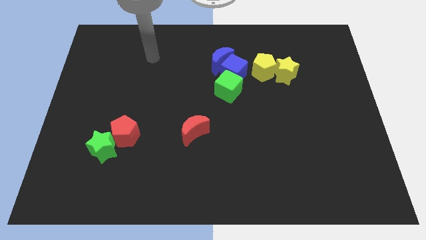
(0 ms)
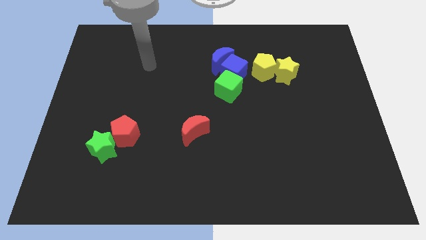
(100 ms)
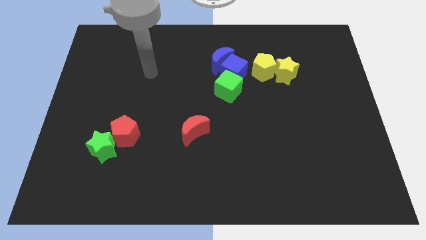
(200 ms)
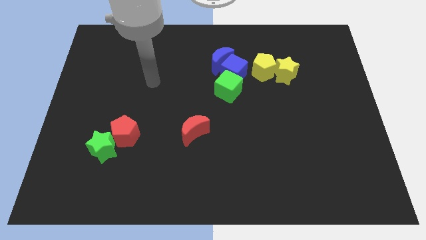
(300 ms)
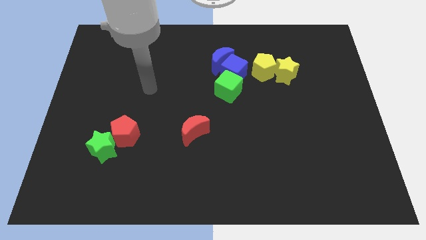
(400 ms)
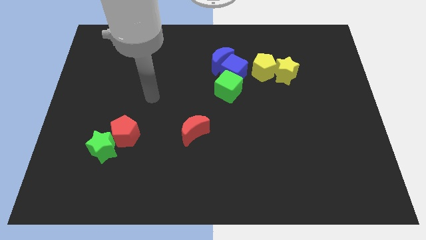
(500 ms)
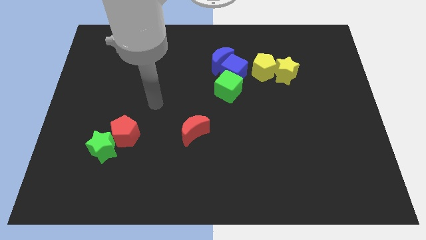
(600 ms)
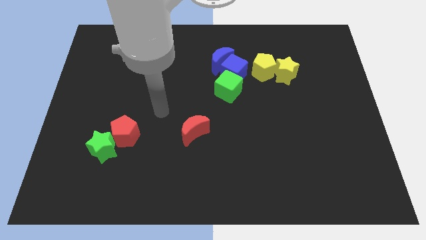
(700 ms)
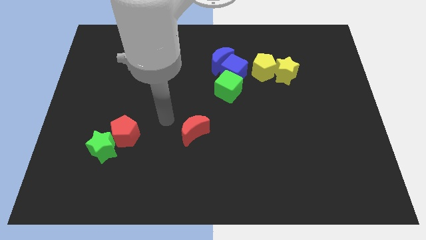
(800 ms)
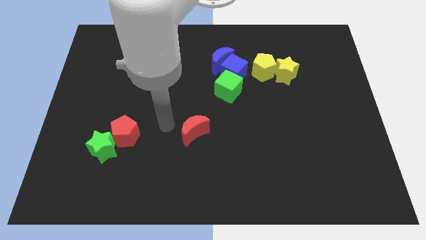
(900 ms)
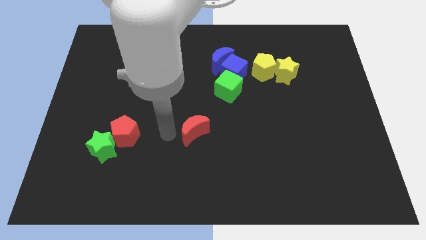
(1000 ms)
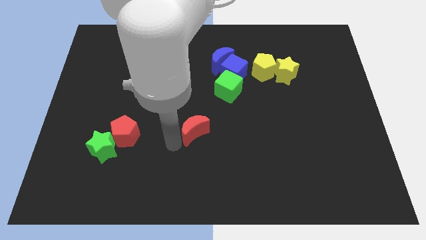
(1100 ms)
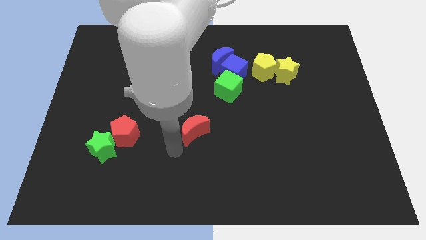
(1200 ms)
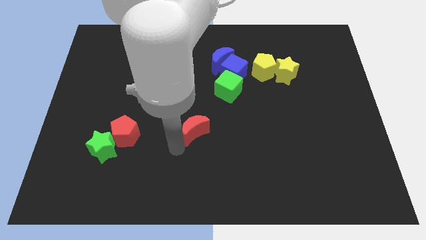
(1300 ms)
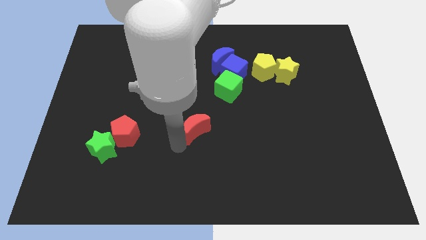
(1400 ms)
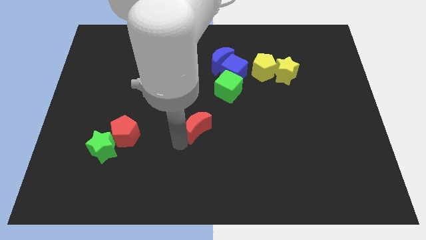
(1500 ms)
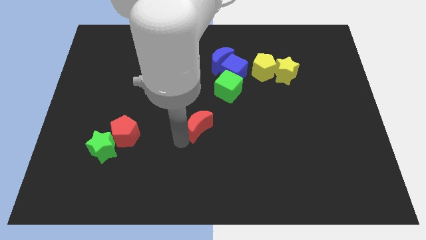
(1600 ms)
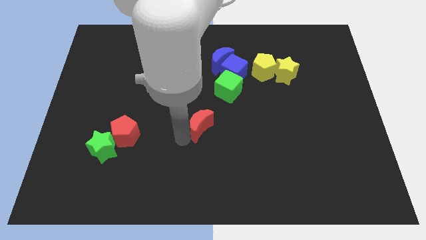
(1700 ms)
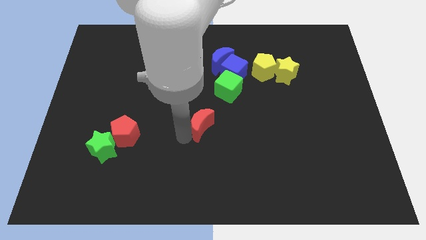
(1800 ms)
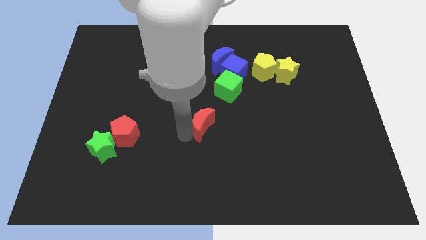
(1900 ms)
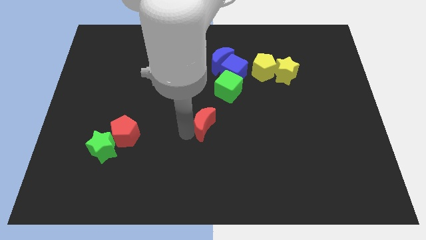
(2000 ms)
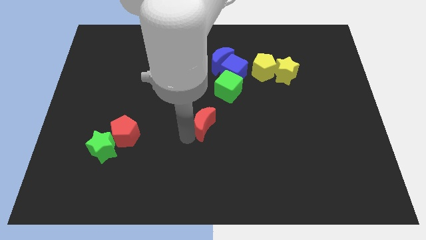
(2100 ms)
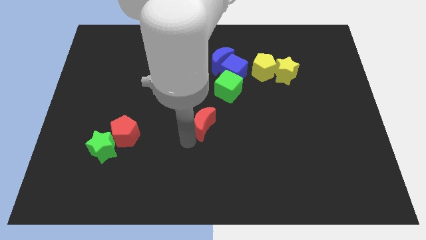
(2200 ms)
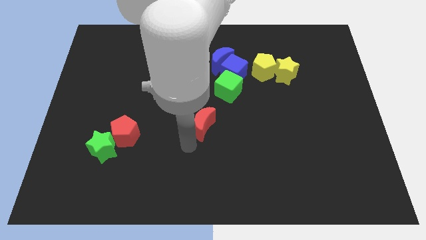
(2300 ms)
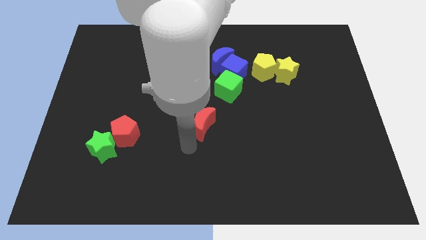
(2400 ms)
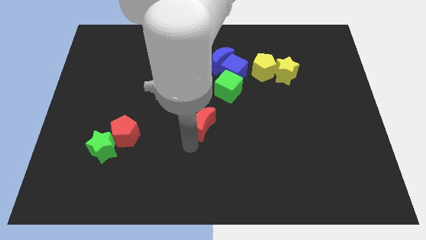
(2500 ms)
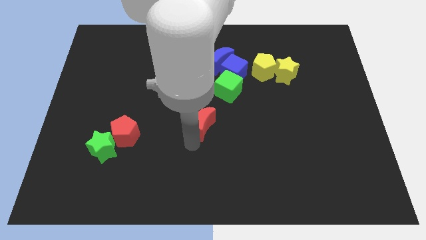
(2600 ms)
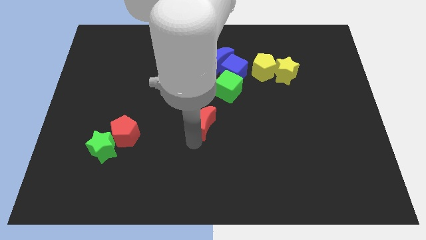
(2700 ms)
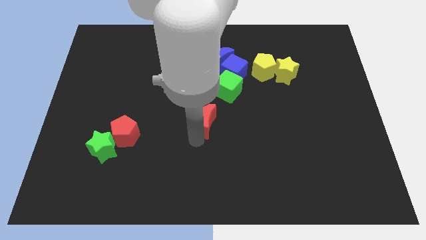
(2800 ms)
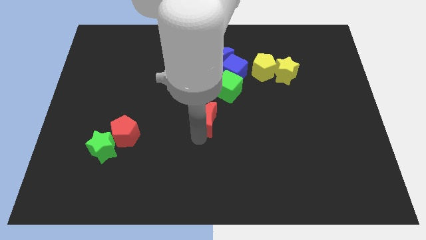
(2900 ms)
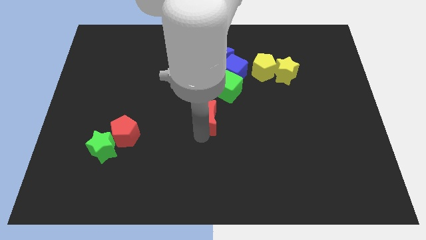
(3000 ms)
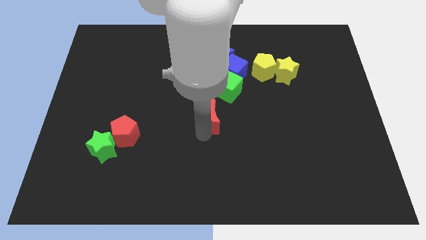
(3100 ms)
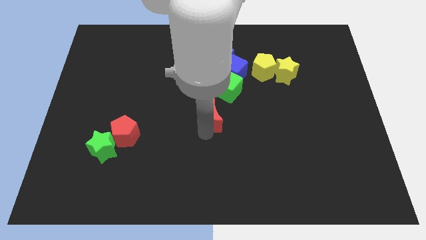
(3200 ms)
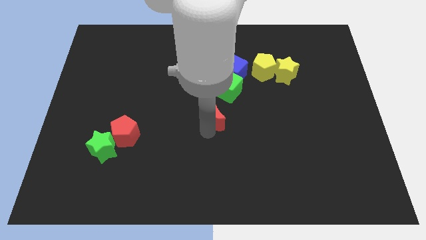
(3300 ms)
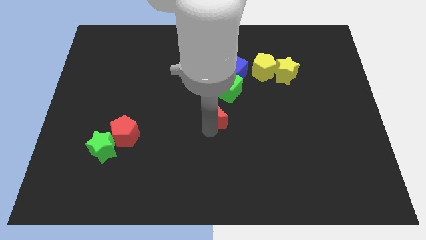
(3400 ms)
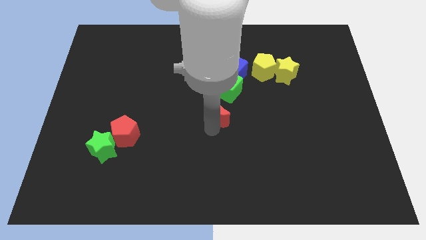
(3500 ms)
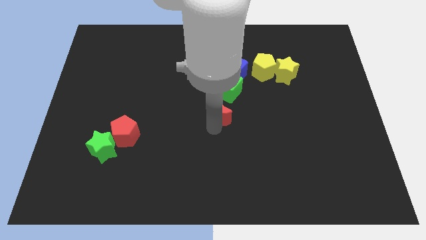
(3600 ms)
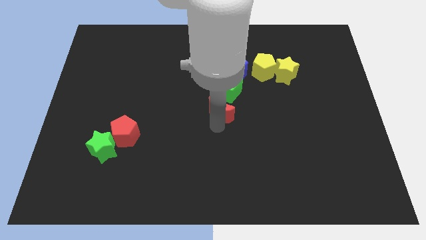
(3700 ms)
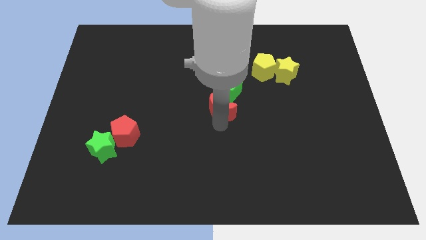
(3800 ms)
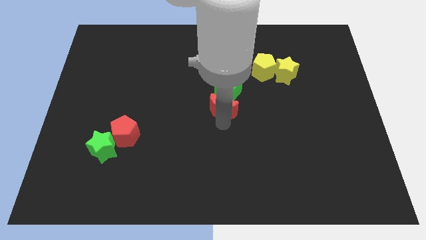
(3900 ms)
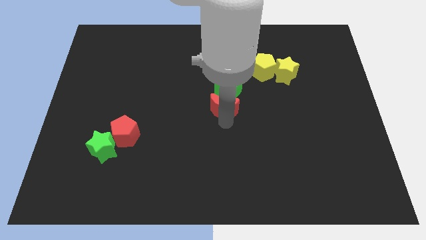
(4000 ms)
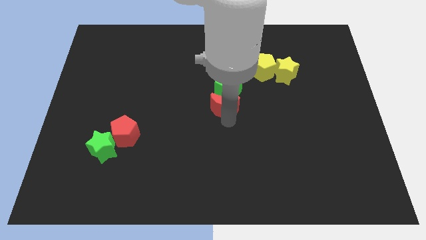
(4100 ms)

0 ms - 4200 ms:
push the red moon close to the green cube

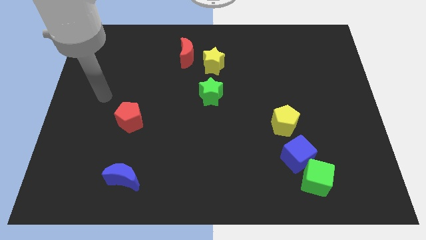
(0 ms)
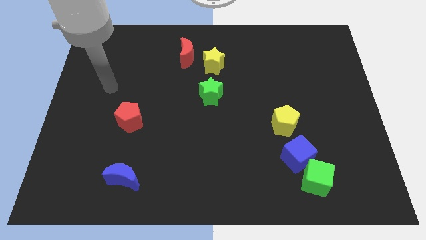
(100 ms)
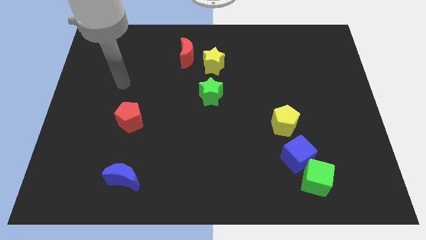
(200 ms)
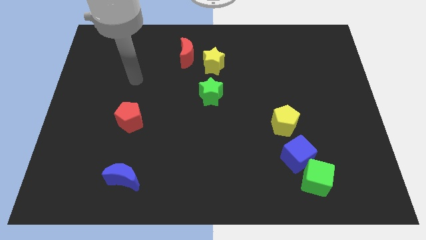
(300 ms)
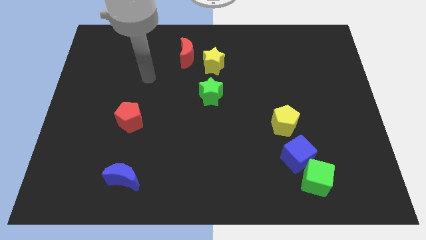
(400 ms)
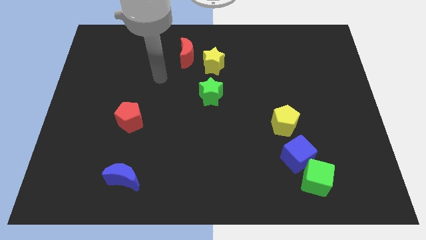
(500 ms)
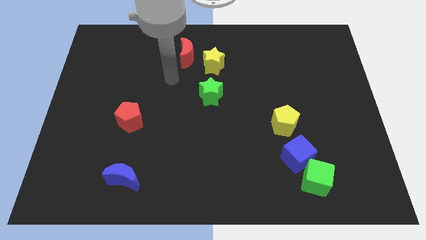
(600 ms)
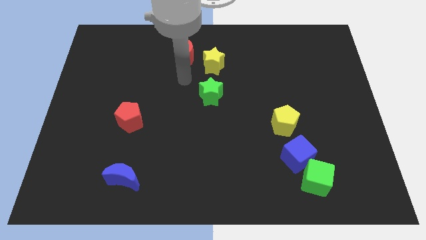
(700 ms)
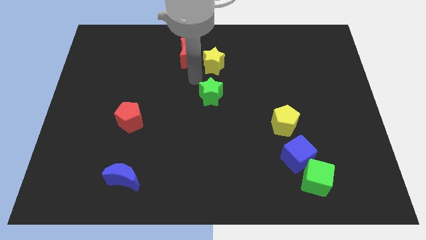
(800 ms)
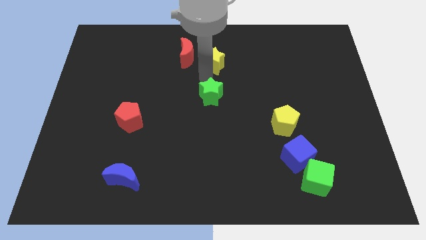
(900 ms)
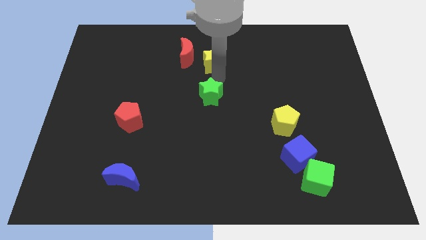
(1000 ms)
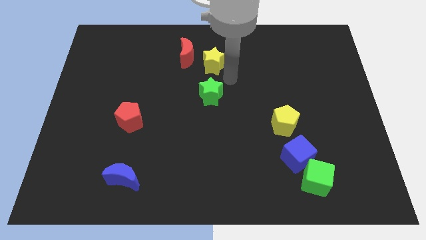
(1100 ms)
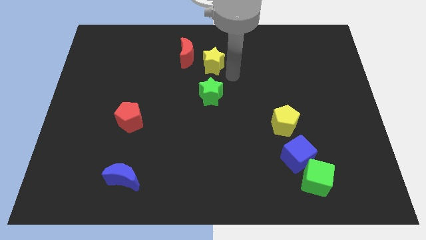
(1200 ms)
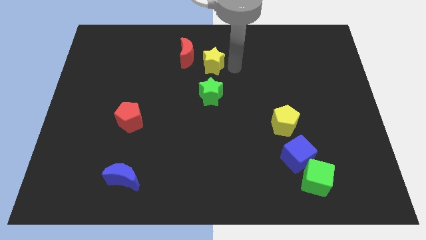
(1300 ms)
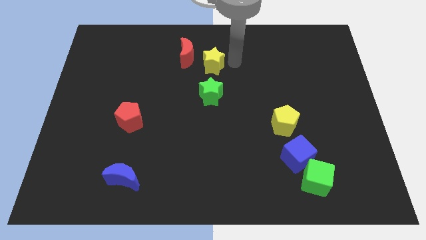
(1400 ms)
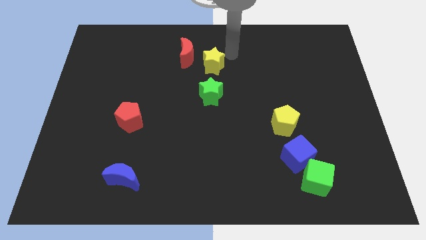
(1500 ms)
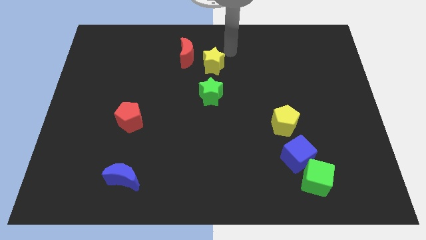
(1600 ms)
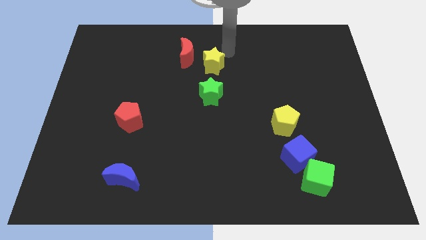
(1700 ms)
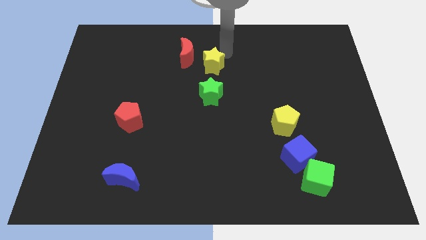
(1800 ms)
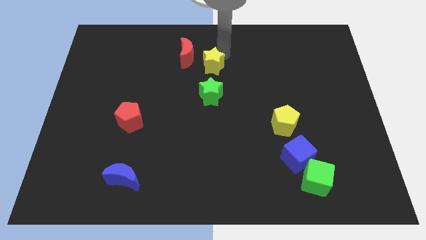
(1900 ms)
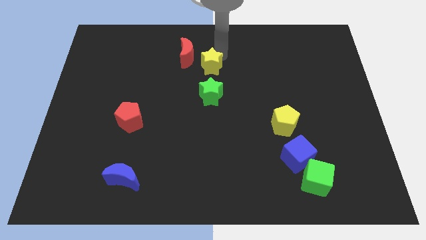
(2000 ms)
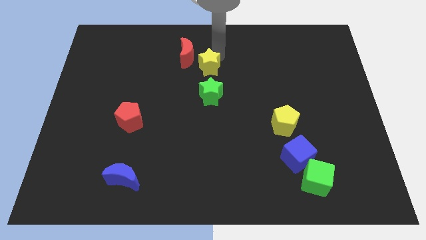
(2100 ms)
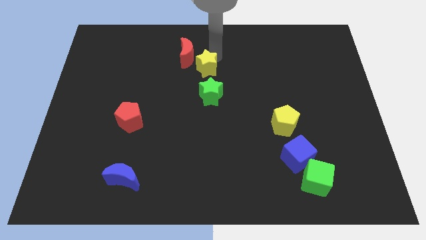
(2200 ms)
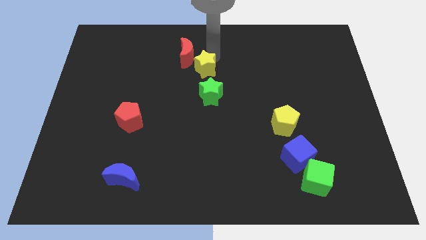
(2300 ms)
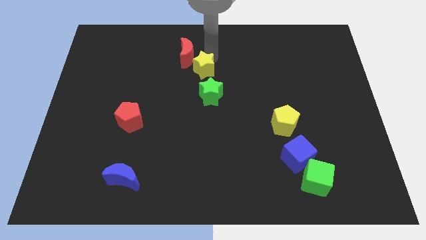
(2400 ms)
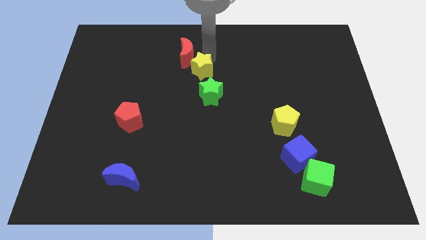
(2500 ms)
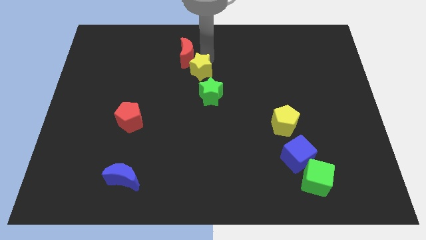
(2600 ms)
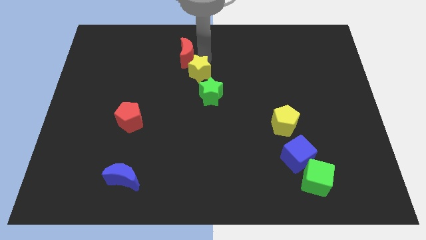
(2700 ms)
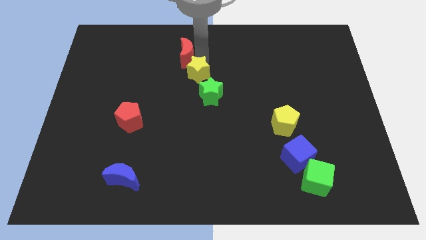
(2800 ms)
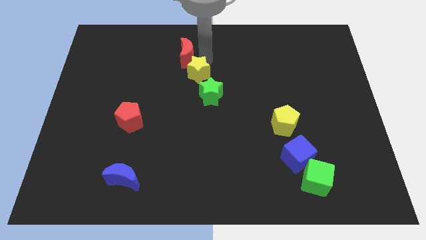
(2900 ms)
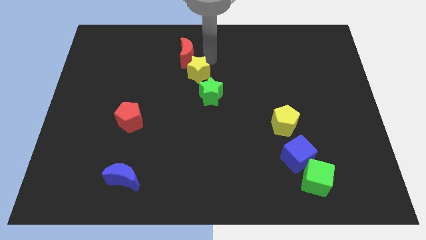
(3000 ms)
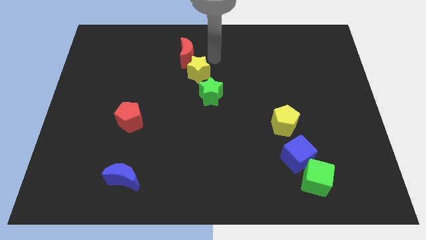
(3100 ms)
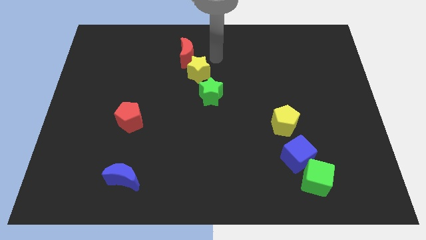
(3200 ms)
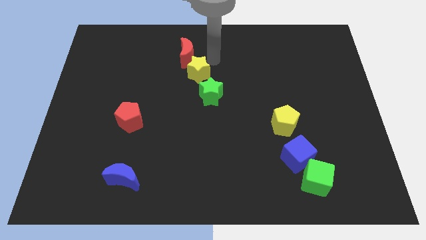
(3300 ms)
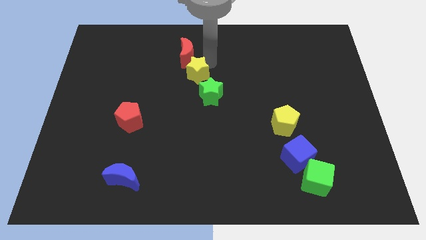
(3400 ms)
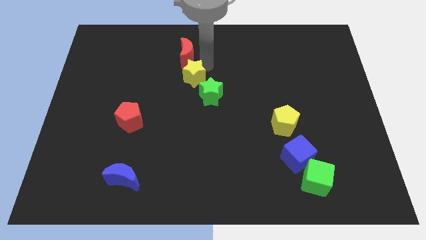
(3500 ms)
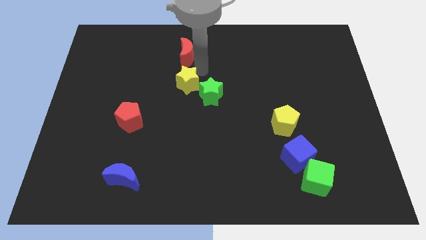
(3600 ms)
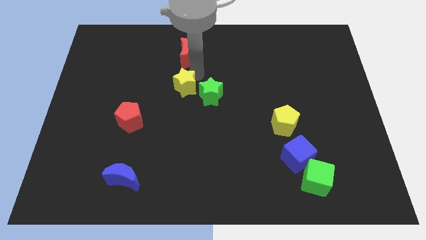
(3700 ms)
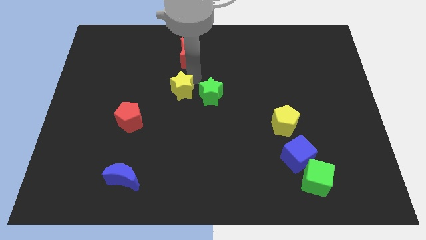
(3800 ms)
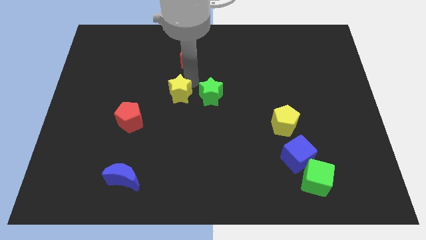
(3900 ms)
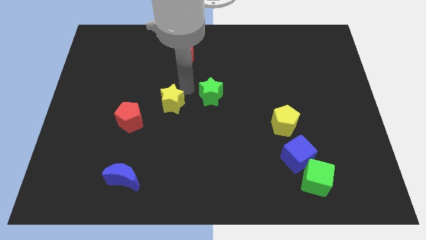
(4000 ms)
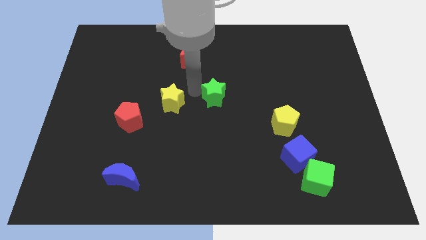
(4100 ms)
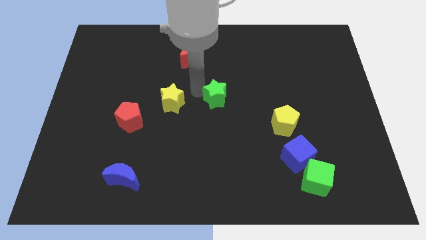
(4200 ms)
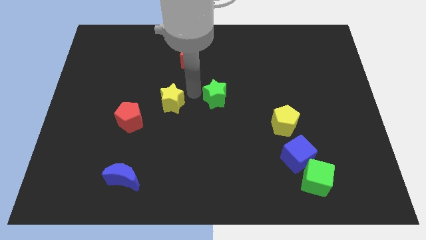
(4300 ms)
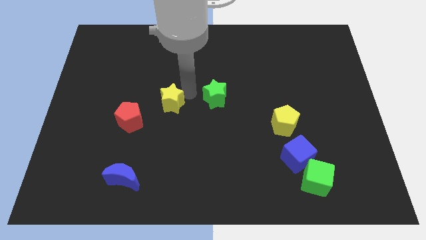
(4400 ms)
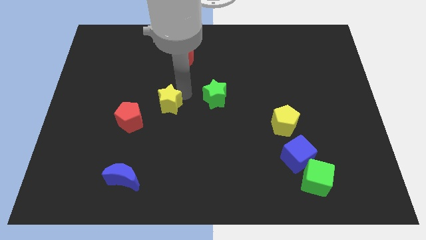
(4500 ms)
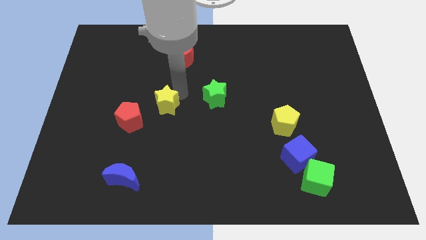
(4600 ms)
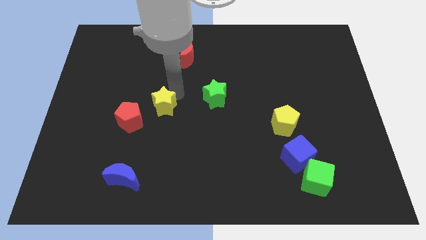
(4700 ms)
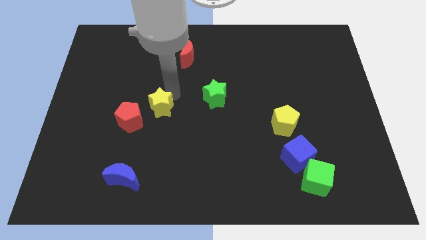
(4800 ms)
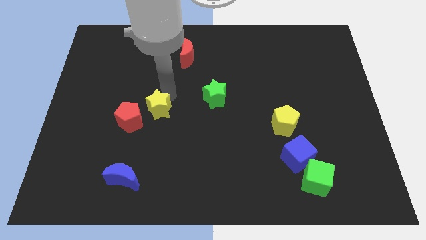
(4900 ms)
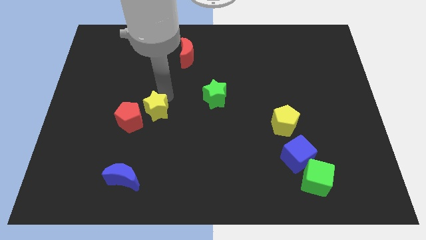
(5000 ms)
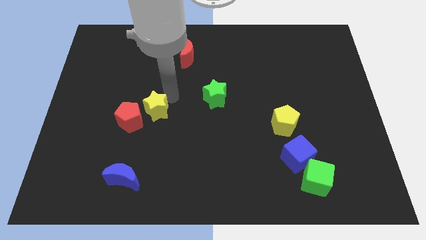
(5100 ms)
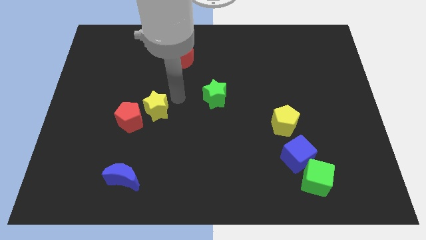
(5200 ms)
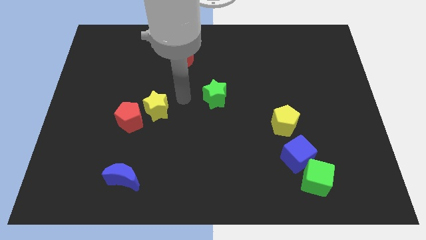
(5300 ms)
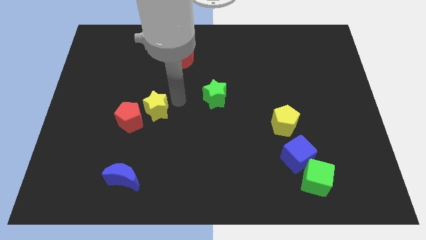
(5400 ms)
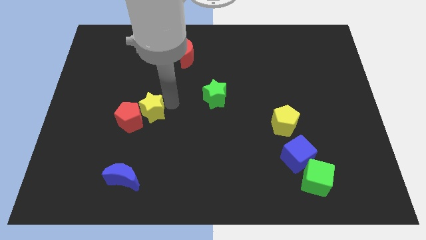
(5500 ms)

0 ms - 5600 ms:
push the yellow star close to the red pentagon
